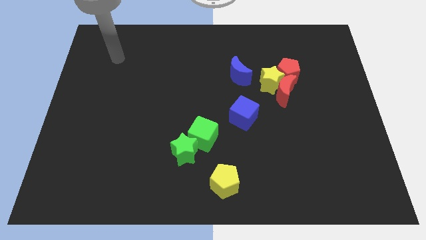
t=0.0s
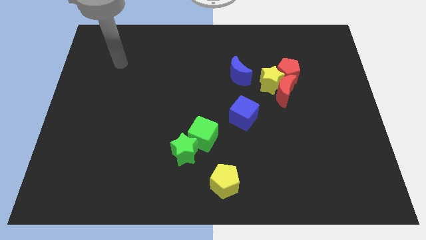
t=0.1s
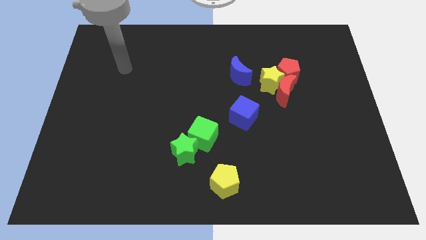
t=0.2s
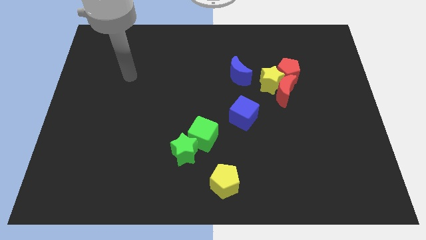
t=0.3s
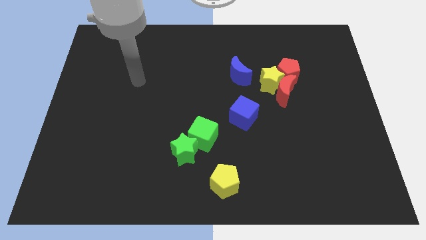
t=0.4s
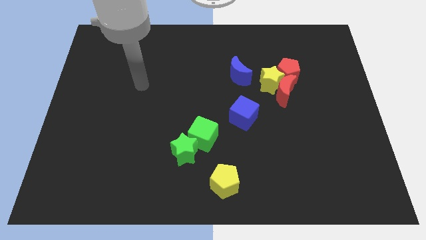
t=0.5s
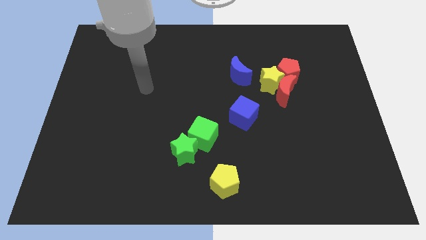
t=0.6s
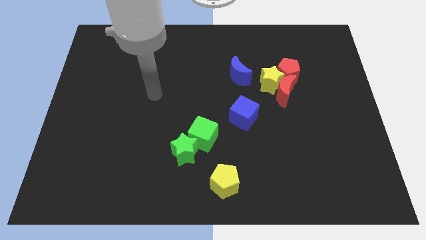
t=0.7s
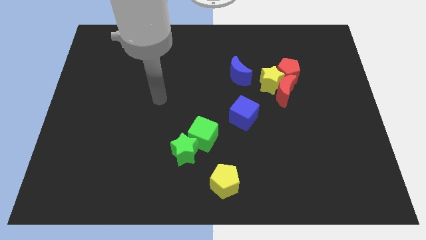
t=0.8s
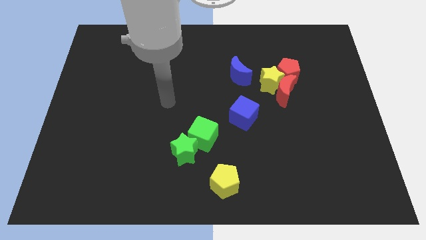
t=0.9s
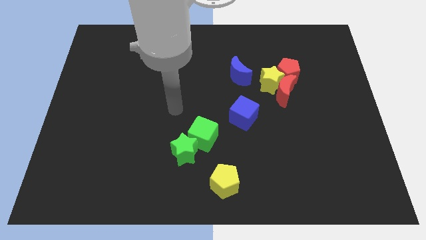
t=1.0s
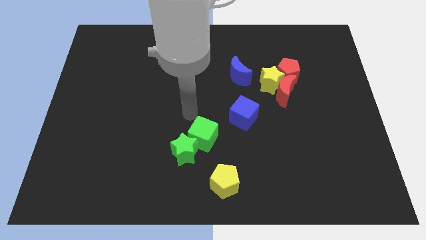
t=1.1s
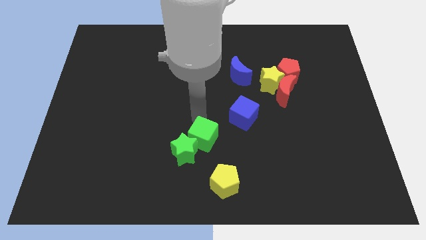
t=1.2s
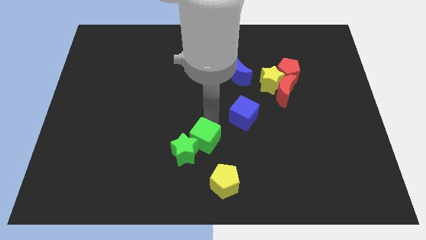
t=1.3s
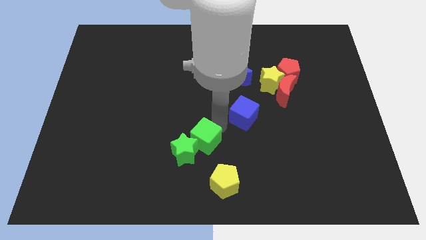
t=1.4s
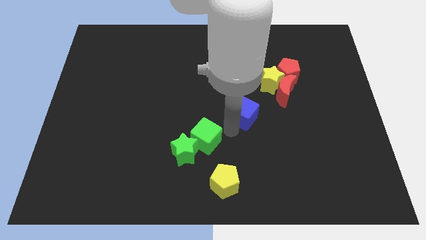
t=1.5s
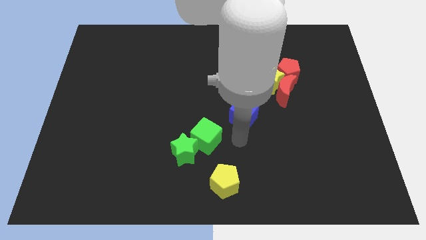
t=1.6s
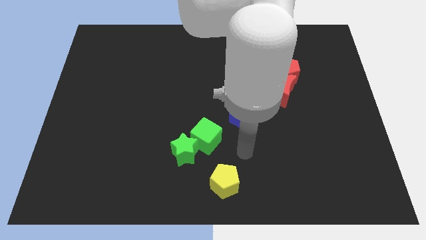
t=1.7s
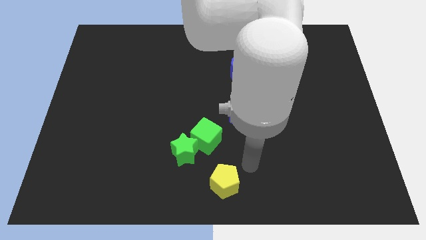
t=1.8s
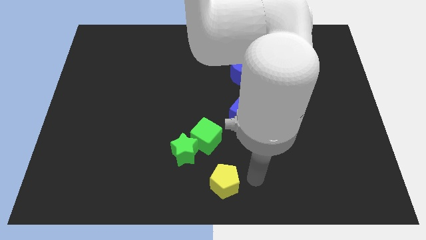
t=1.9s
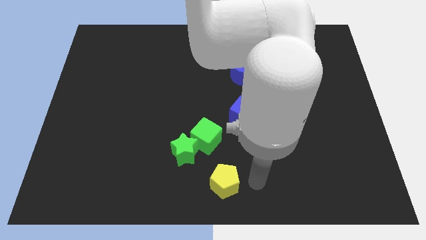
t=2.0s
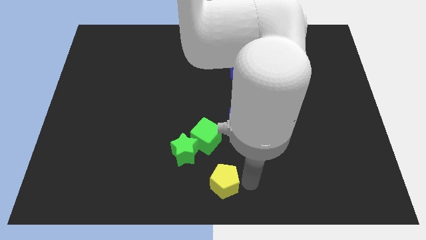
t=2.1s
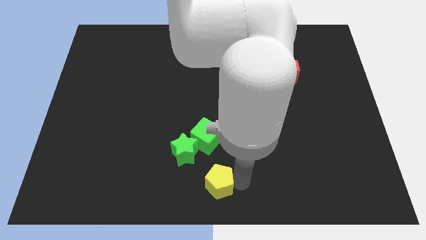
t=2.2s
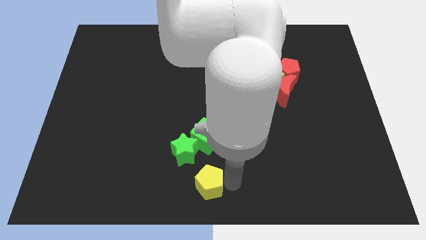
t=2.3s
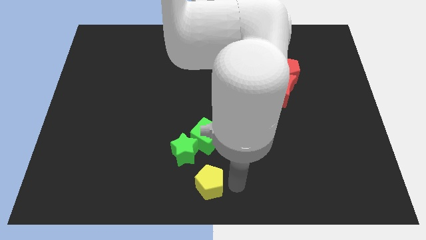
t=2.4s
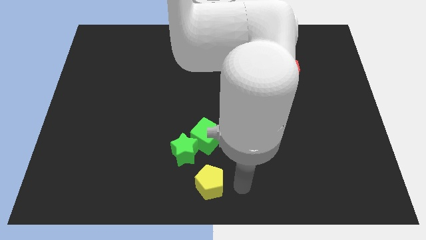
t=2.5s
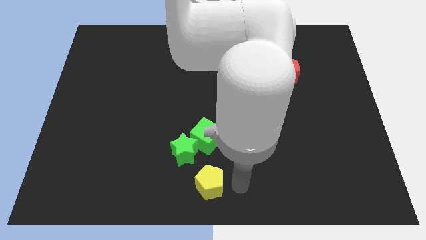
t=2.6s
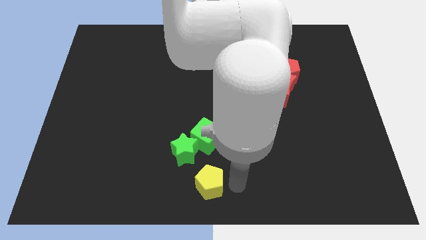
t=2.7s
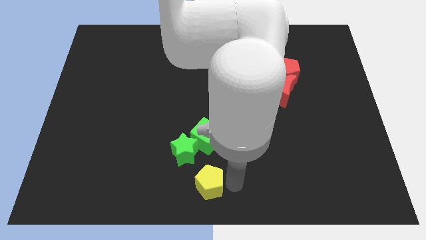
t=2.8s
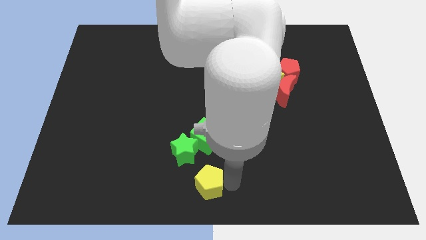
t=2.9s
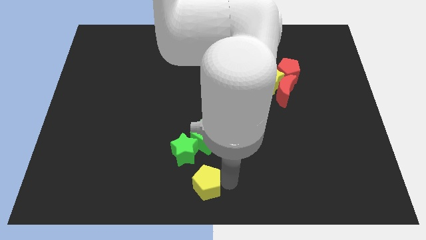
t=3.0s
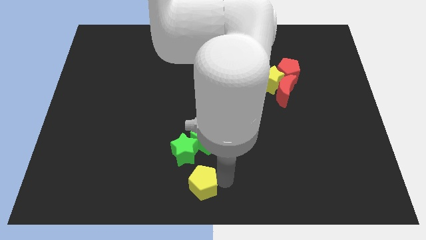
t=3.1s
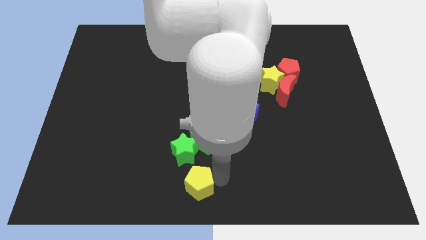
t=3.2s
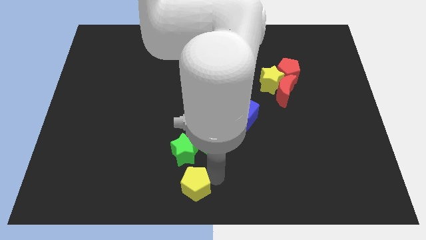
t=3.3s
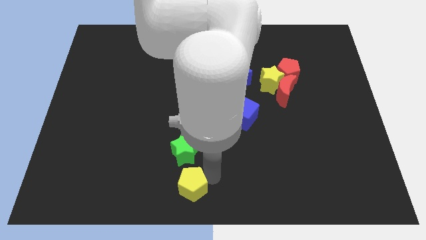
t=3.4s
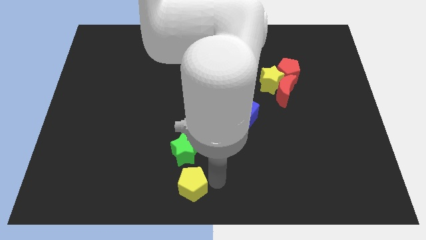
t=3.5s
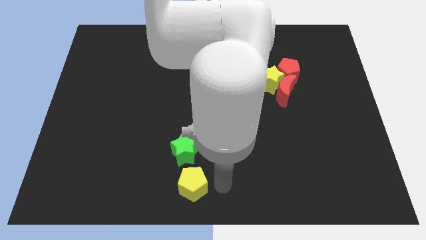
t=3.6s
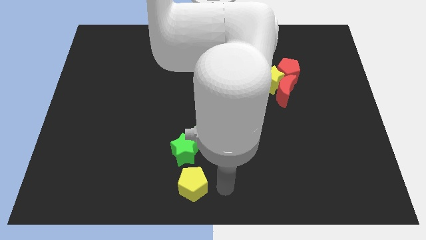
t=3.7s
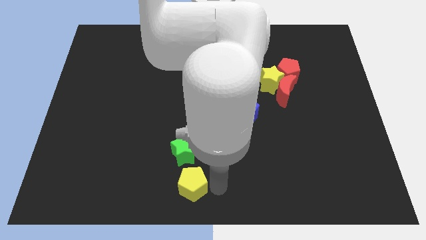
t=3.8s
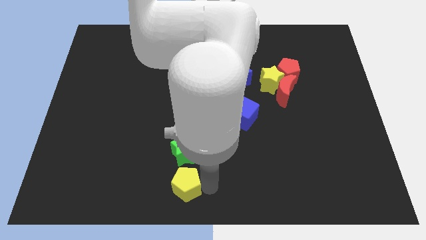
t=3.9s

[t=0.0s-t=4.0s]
move the yellow pentagon a bit to the left

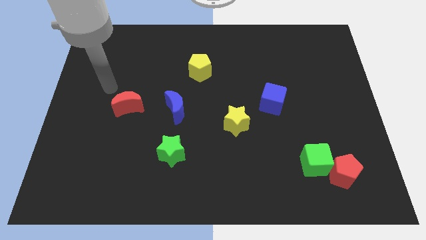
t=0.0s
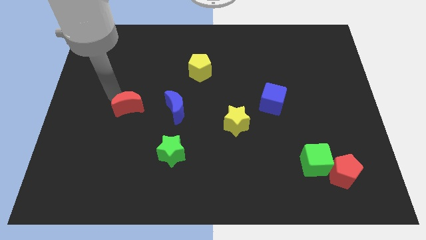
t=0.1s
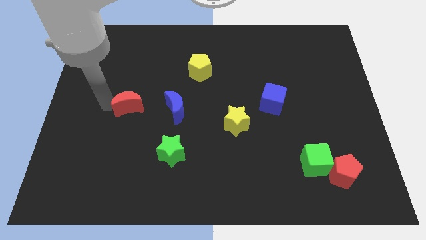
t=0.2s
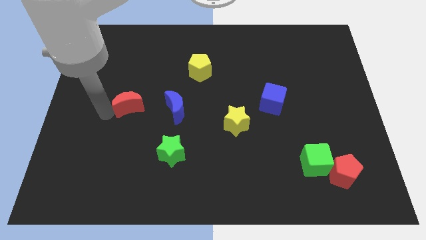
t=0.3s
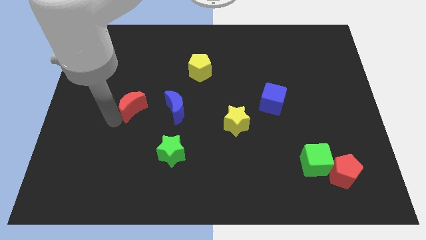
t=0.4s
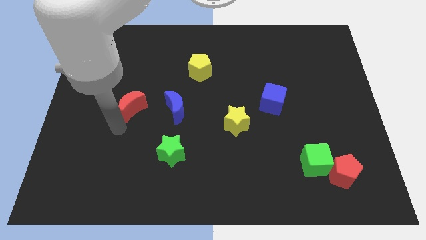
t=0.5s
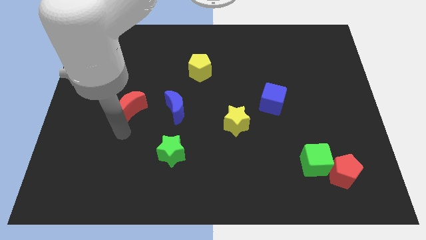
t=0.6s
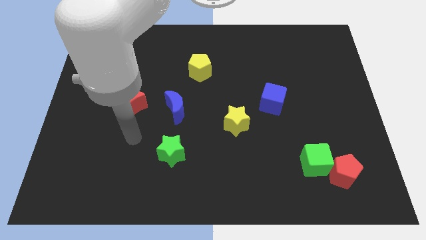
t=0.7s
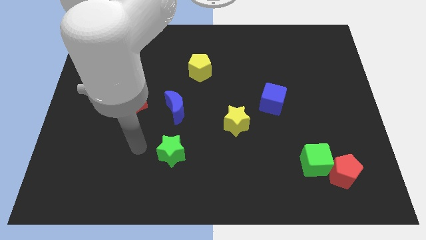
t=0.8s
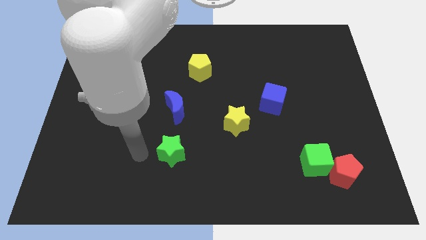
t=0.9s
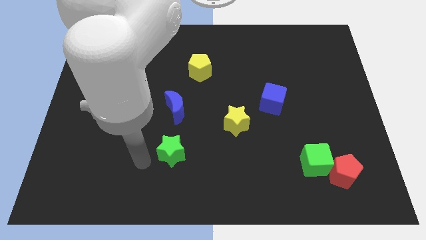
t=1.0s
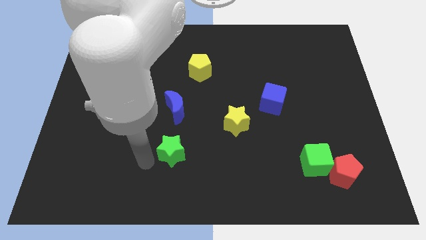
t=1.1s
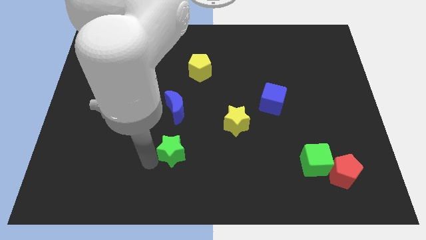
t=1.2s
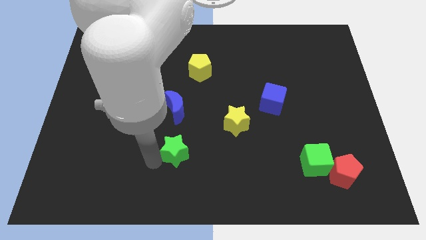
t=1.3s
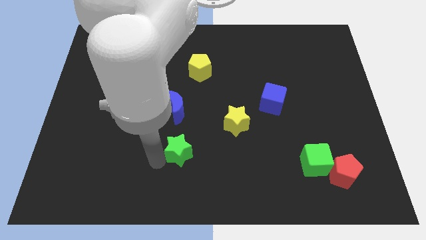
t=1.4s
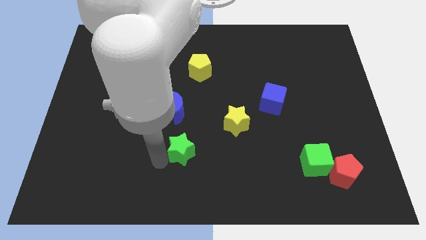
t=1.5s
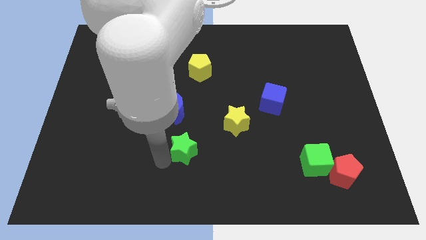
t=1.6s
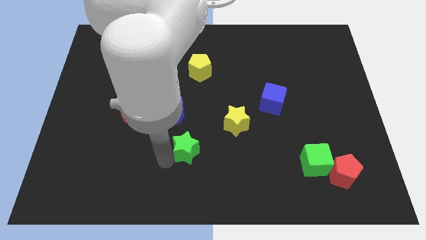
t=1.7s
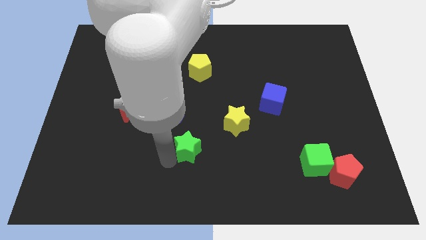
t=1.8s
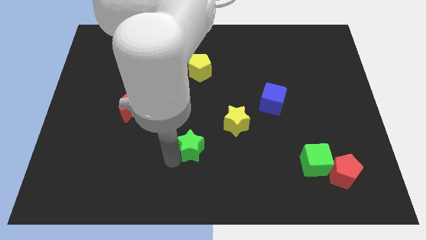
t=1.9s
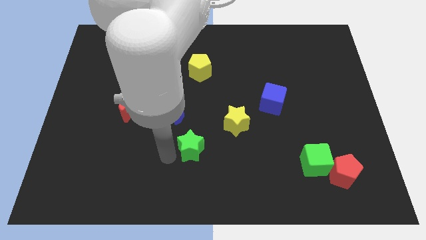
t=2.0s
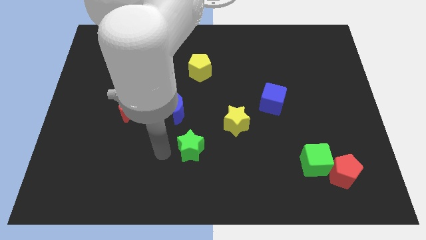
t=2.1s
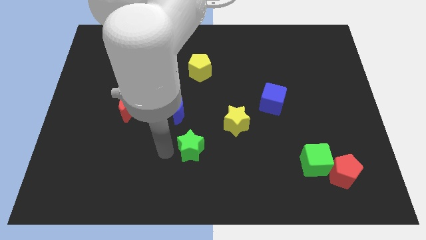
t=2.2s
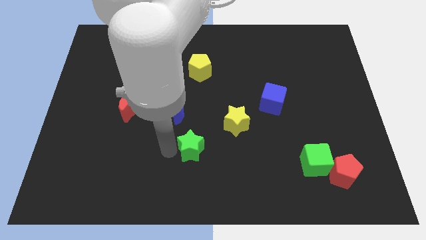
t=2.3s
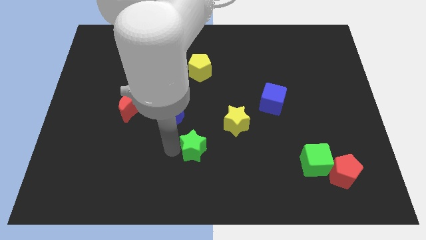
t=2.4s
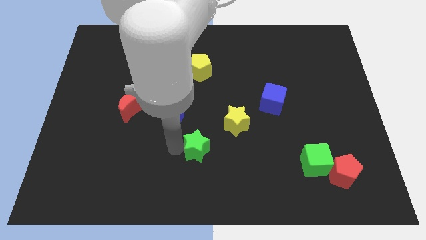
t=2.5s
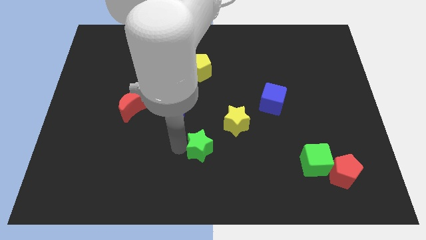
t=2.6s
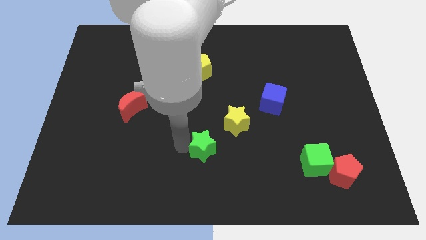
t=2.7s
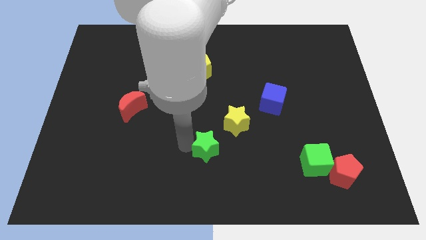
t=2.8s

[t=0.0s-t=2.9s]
slide the green star a little bit to the right

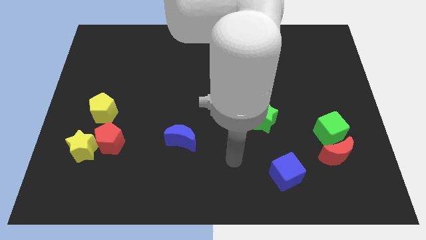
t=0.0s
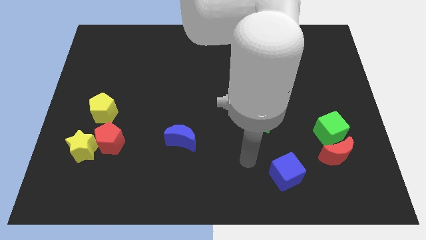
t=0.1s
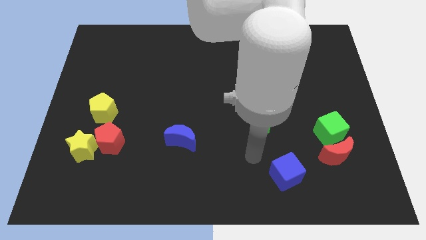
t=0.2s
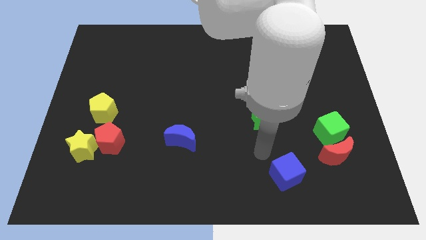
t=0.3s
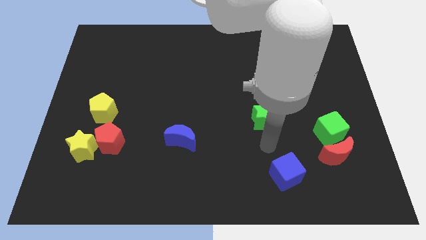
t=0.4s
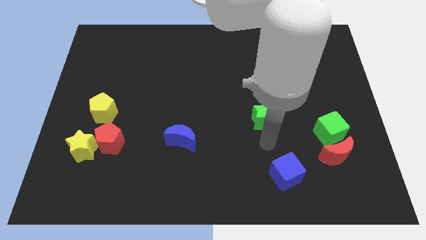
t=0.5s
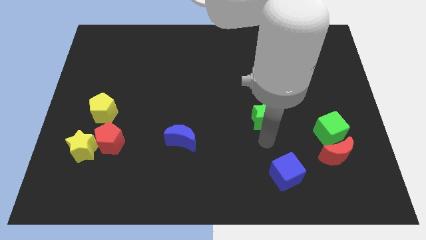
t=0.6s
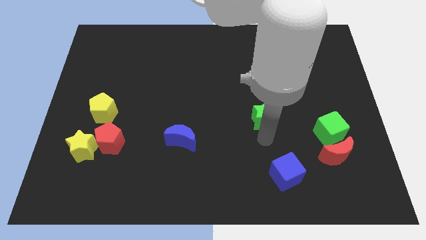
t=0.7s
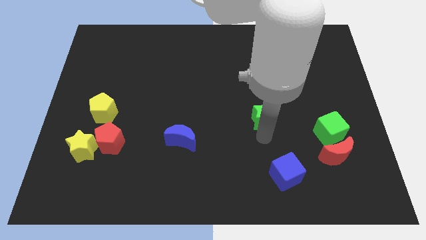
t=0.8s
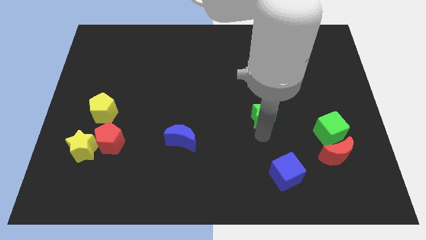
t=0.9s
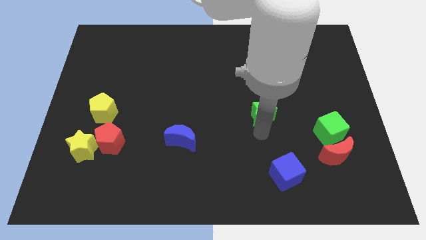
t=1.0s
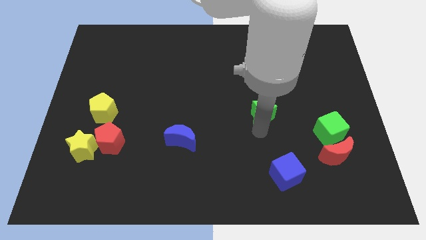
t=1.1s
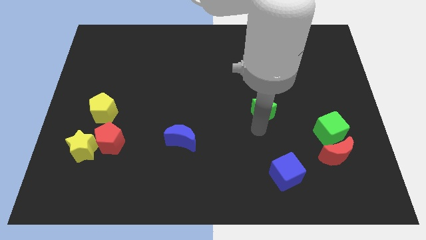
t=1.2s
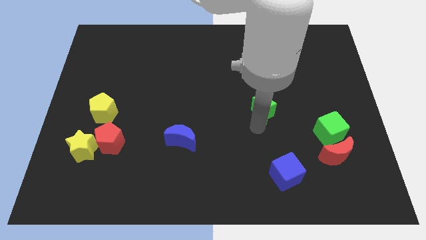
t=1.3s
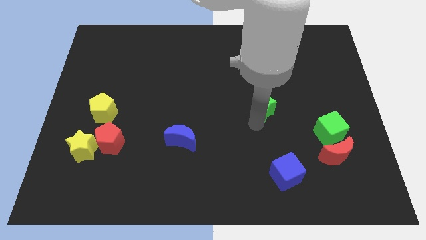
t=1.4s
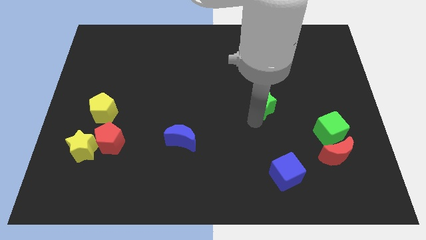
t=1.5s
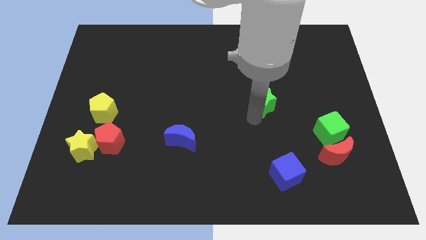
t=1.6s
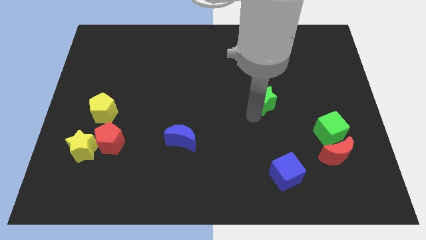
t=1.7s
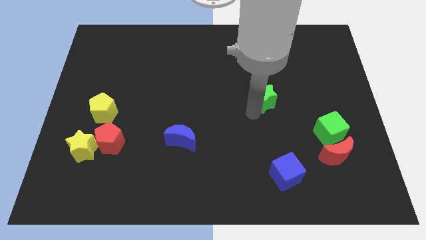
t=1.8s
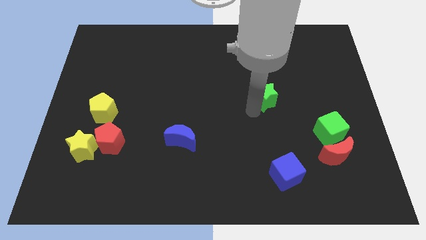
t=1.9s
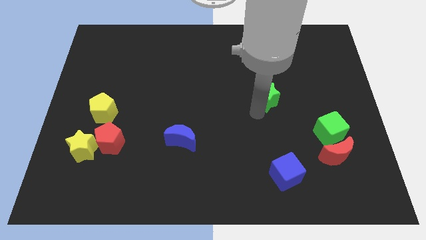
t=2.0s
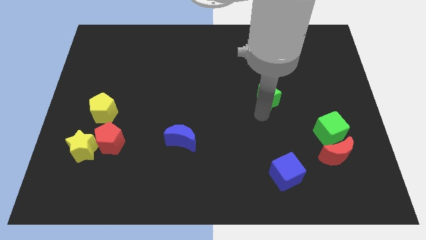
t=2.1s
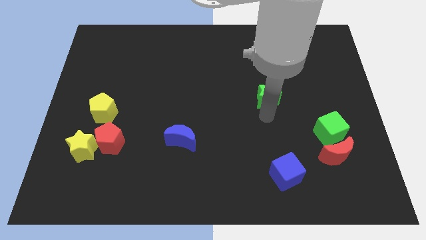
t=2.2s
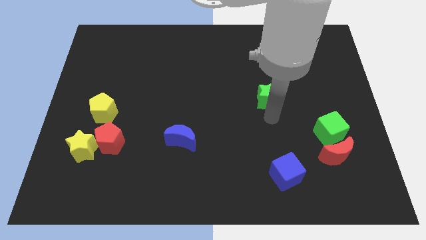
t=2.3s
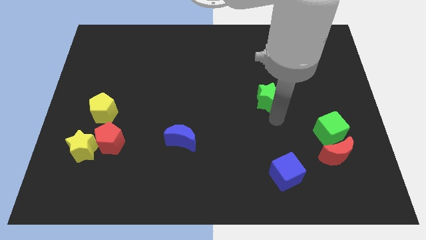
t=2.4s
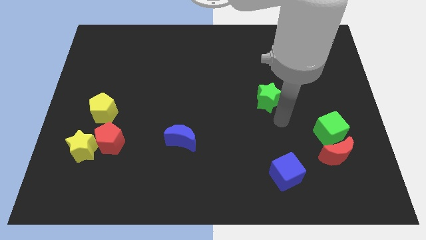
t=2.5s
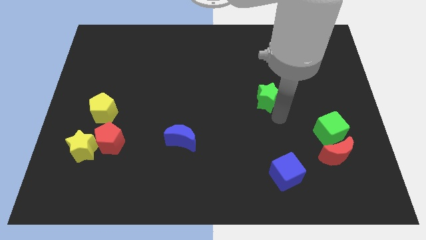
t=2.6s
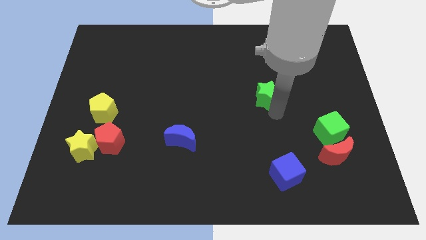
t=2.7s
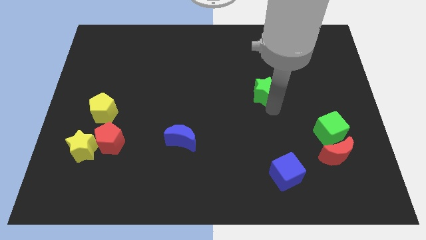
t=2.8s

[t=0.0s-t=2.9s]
push the green star up a little
